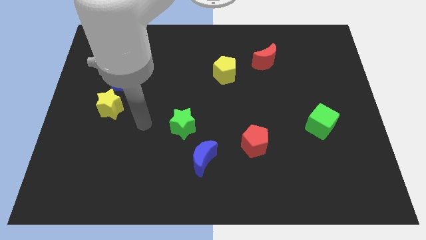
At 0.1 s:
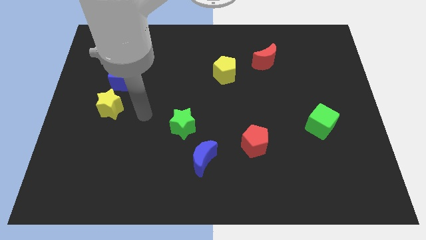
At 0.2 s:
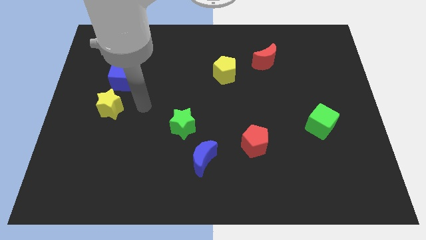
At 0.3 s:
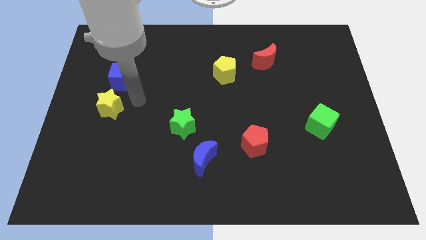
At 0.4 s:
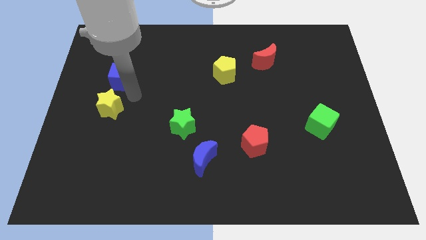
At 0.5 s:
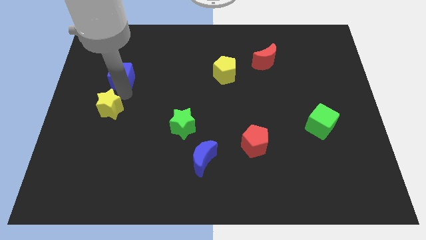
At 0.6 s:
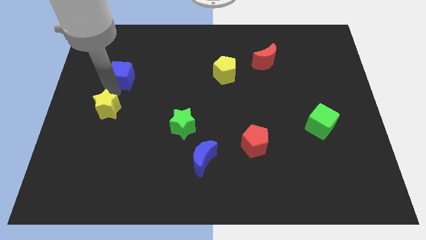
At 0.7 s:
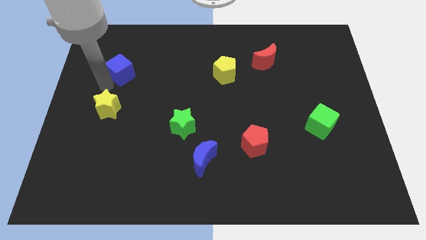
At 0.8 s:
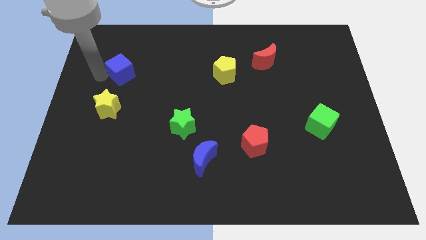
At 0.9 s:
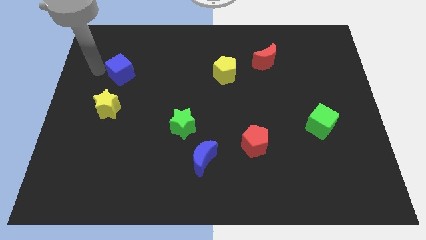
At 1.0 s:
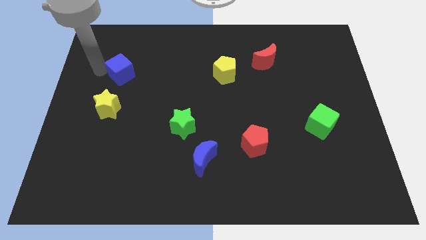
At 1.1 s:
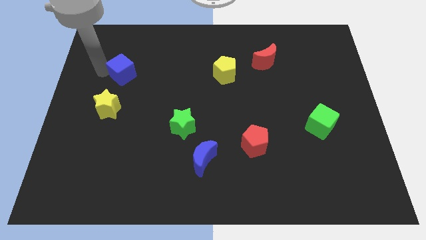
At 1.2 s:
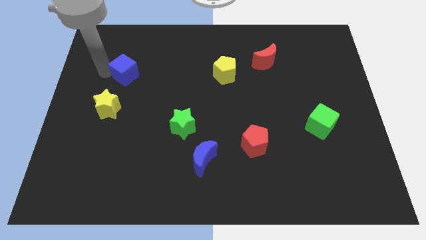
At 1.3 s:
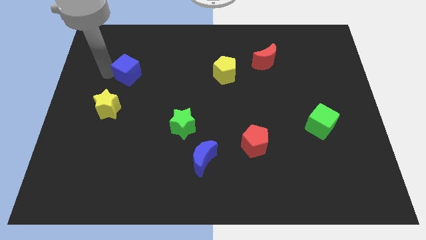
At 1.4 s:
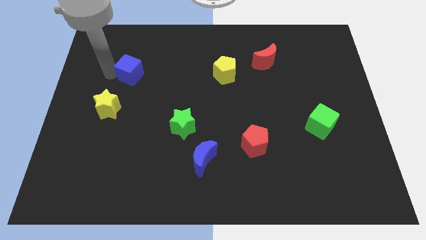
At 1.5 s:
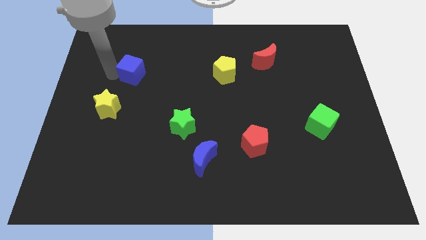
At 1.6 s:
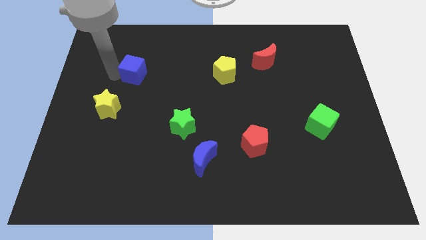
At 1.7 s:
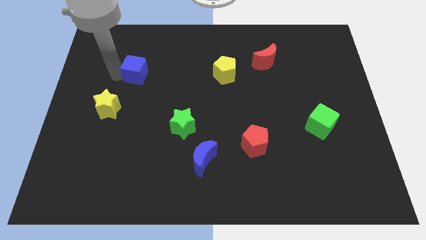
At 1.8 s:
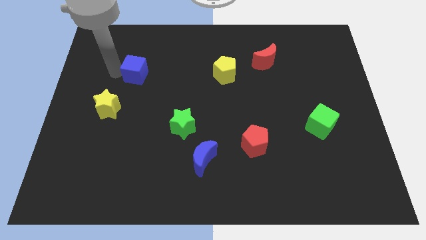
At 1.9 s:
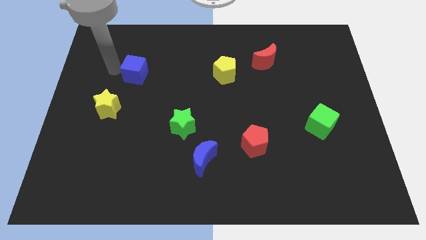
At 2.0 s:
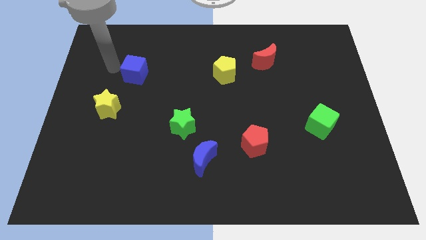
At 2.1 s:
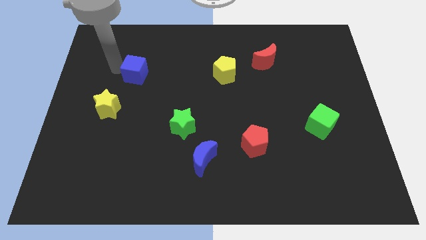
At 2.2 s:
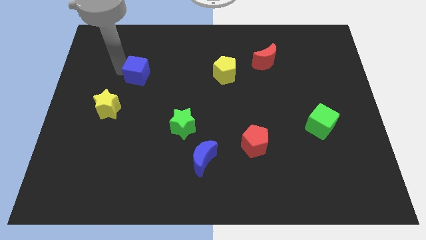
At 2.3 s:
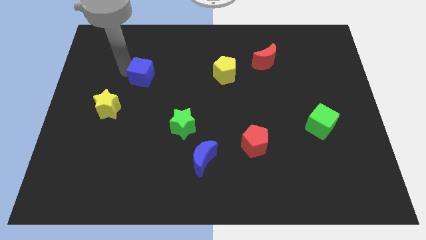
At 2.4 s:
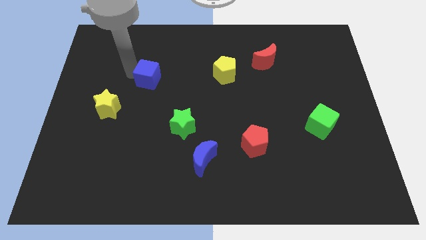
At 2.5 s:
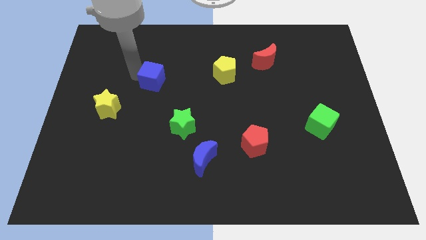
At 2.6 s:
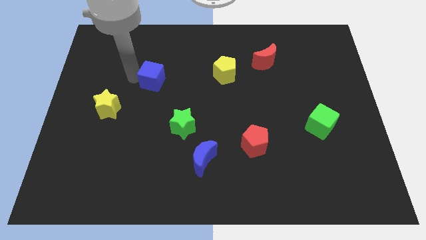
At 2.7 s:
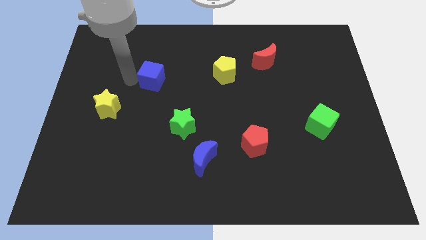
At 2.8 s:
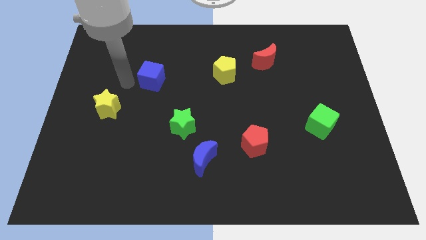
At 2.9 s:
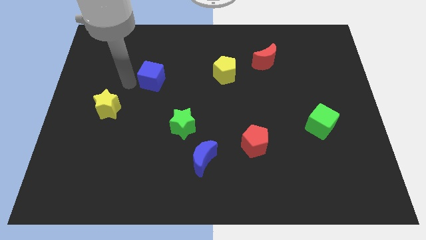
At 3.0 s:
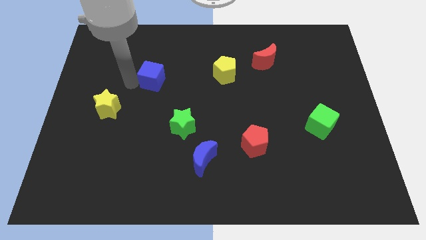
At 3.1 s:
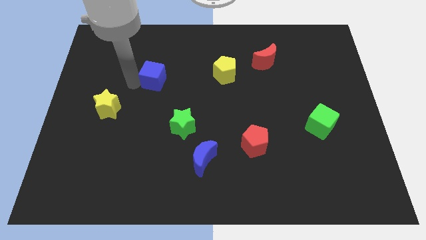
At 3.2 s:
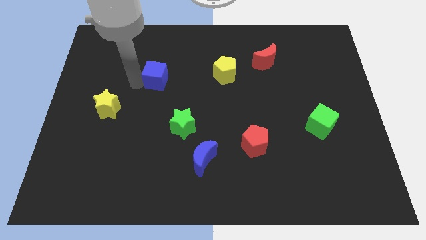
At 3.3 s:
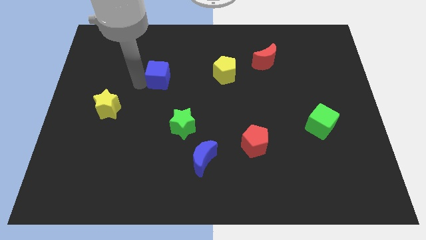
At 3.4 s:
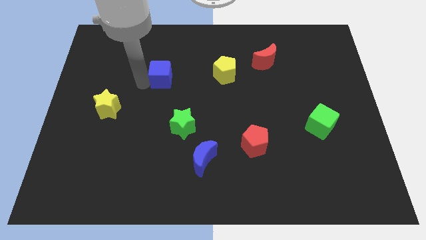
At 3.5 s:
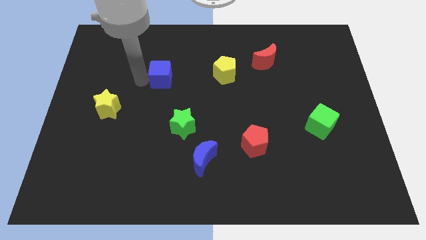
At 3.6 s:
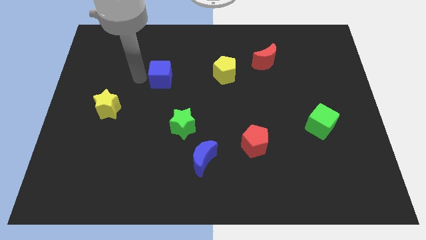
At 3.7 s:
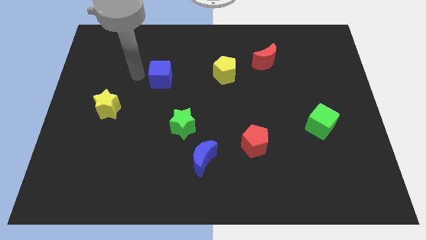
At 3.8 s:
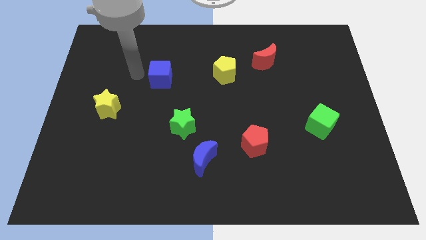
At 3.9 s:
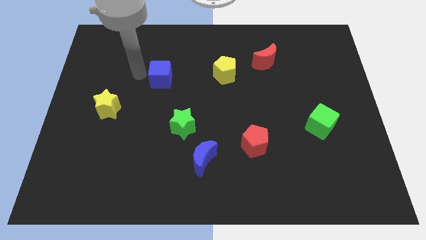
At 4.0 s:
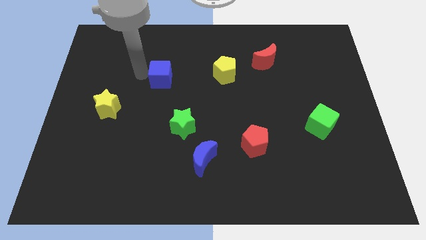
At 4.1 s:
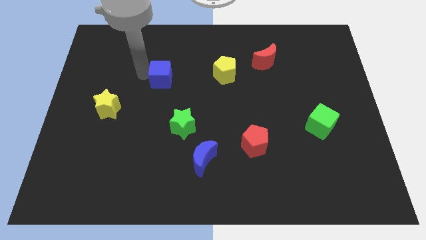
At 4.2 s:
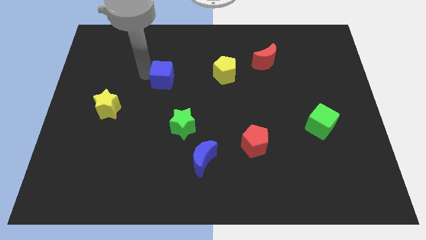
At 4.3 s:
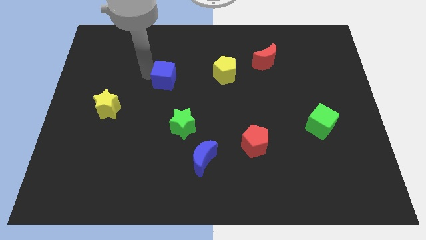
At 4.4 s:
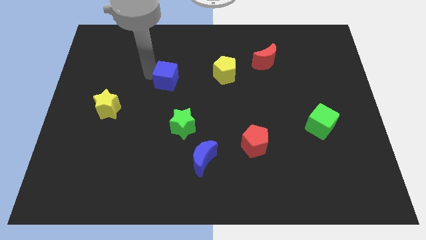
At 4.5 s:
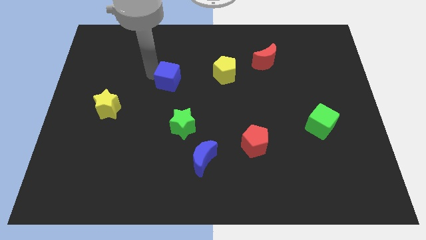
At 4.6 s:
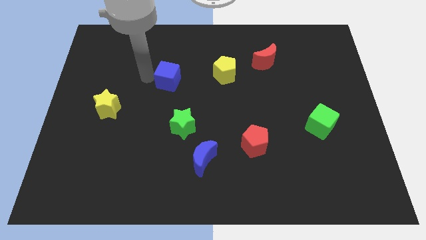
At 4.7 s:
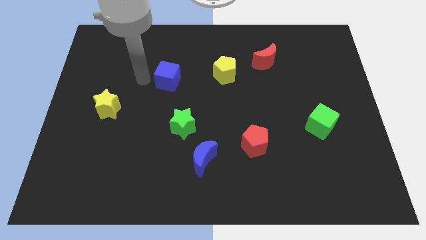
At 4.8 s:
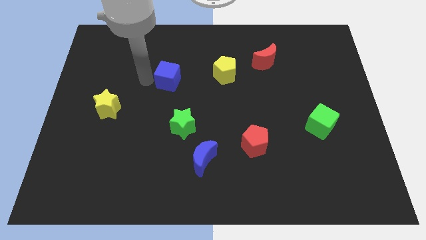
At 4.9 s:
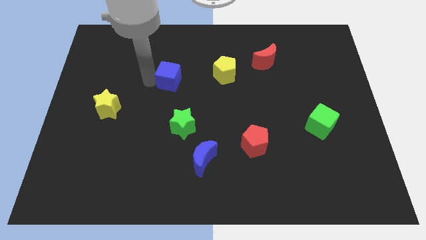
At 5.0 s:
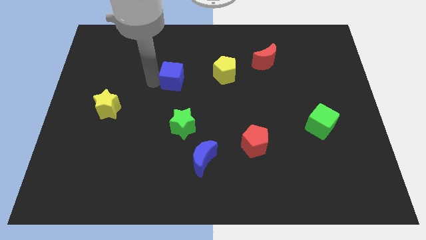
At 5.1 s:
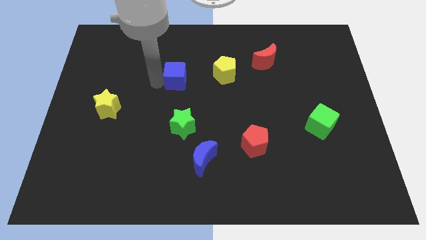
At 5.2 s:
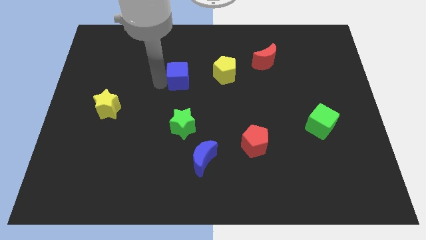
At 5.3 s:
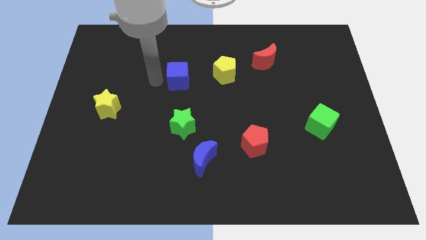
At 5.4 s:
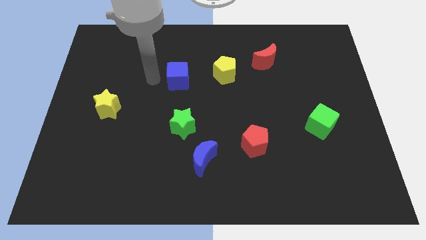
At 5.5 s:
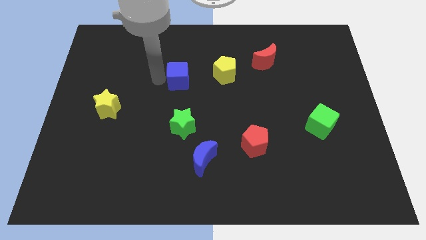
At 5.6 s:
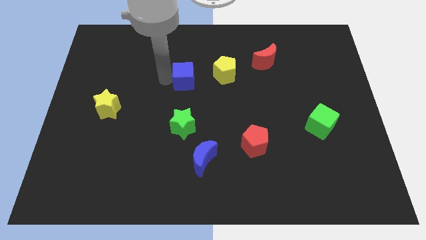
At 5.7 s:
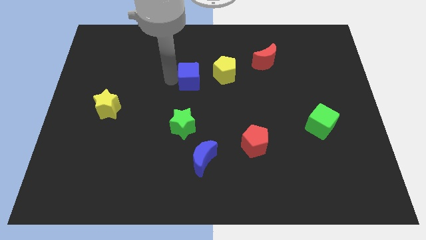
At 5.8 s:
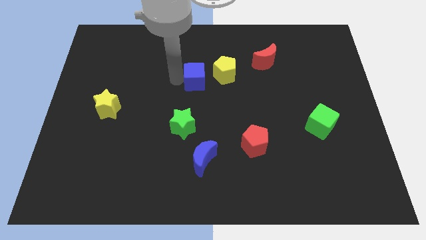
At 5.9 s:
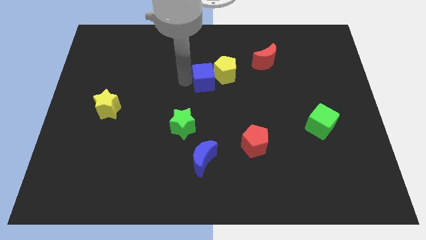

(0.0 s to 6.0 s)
move the blue cube close to the yellow pentagon

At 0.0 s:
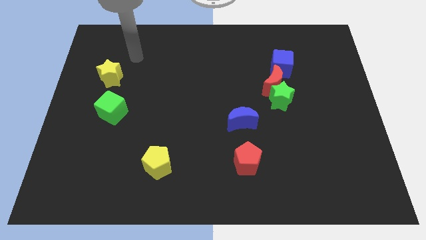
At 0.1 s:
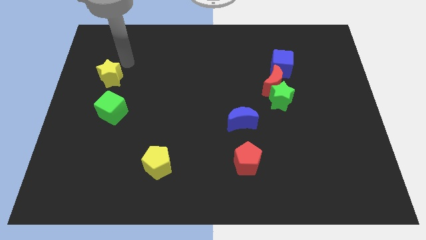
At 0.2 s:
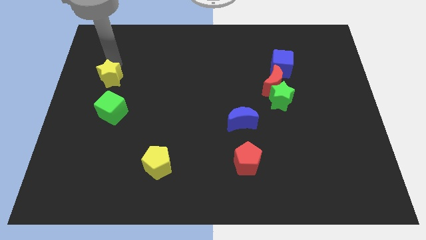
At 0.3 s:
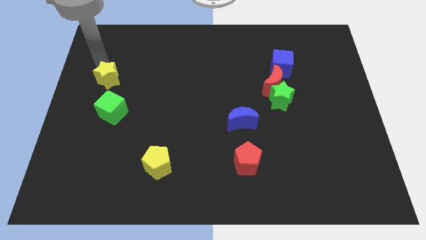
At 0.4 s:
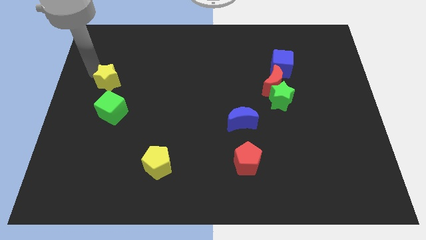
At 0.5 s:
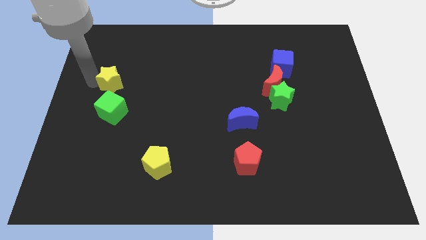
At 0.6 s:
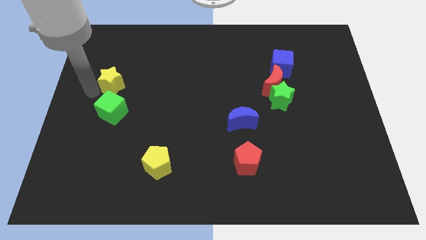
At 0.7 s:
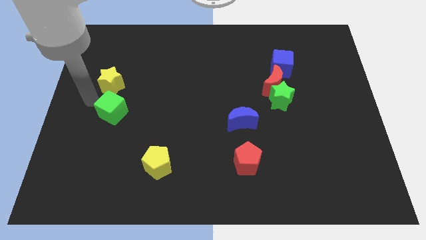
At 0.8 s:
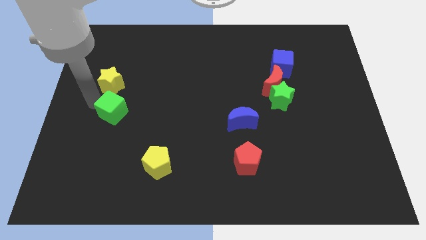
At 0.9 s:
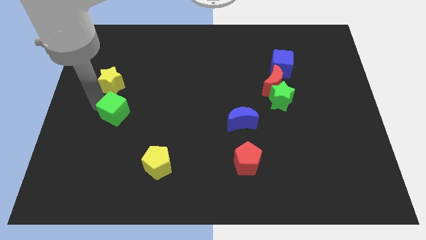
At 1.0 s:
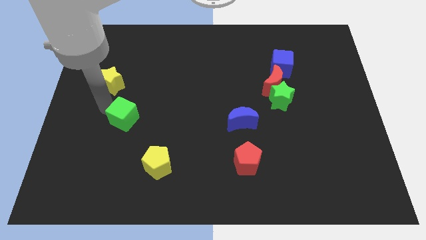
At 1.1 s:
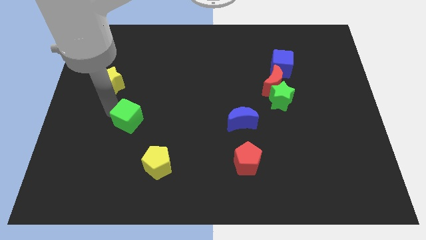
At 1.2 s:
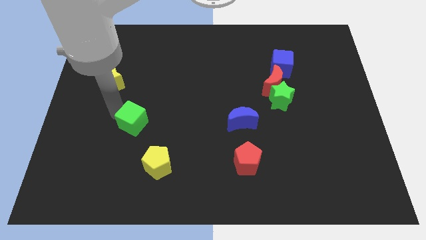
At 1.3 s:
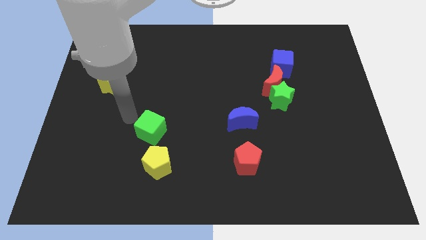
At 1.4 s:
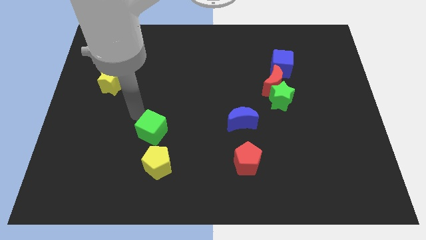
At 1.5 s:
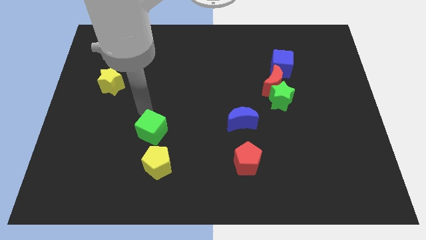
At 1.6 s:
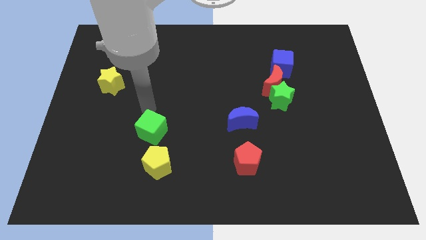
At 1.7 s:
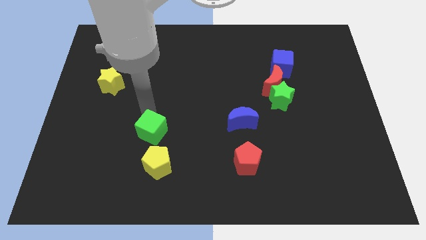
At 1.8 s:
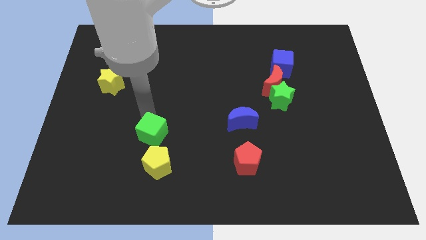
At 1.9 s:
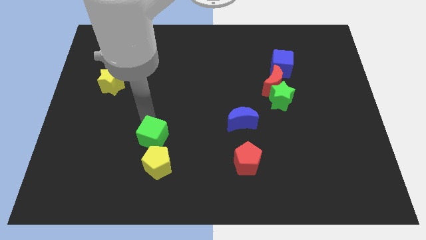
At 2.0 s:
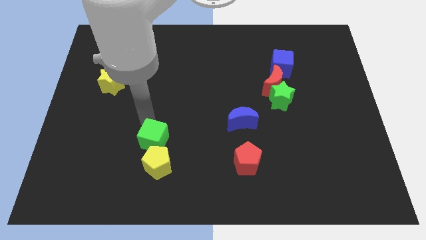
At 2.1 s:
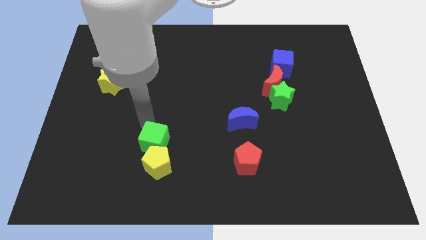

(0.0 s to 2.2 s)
slide the green cube close to the yellow pentagon
